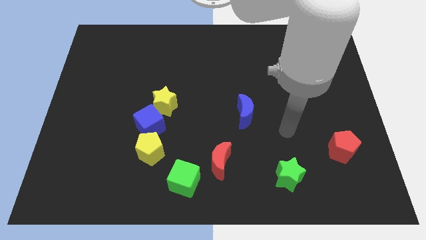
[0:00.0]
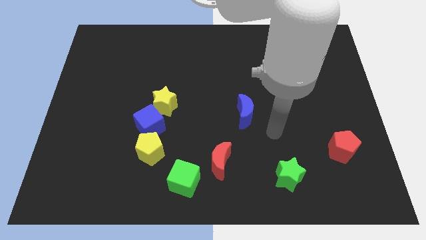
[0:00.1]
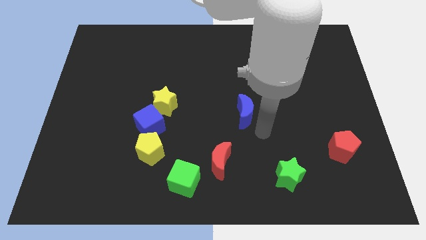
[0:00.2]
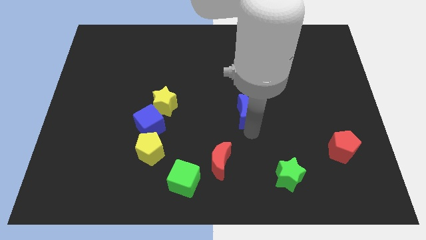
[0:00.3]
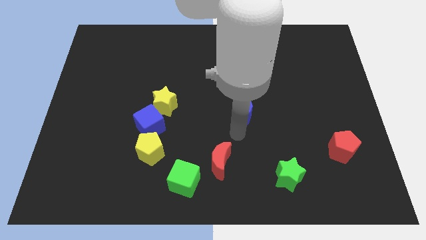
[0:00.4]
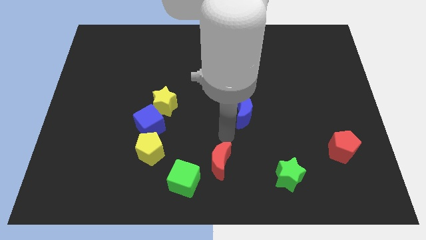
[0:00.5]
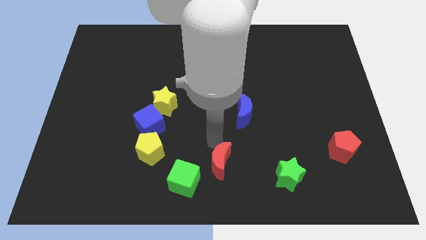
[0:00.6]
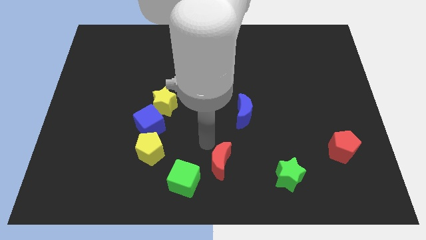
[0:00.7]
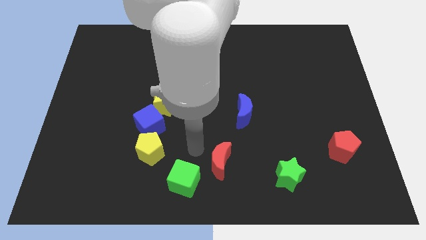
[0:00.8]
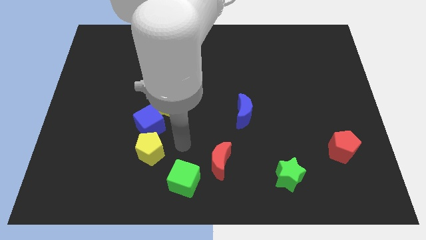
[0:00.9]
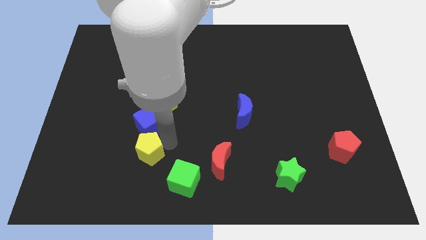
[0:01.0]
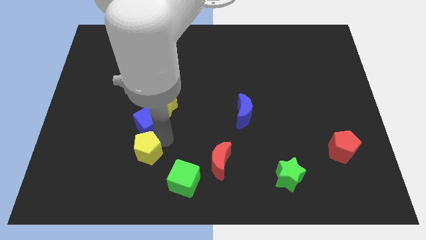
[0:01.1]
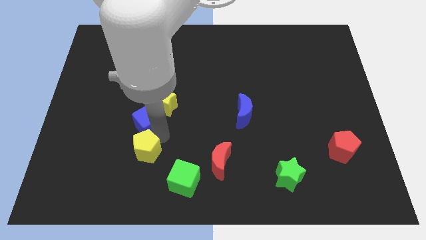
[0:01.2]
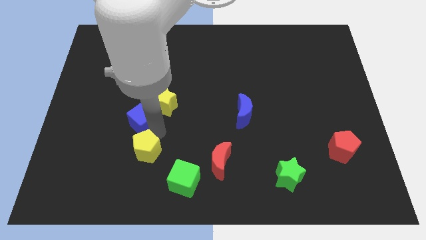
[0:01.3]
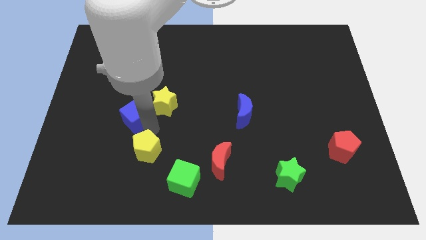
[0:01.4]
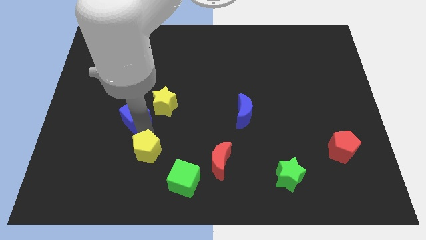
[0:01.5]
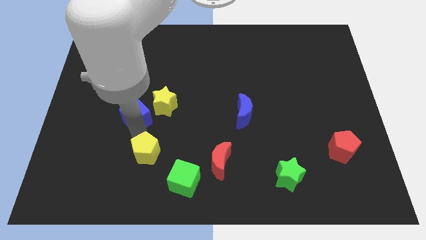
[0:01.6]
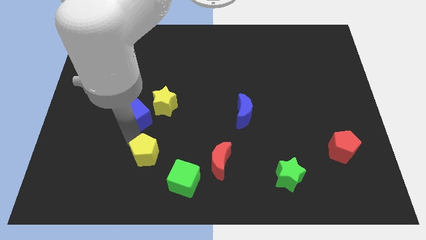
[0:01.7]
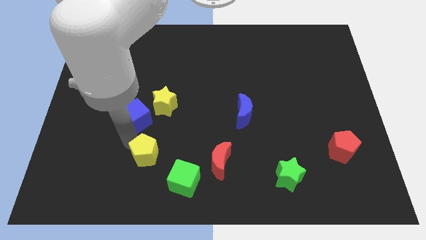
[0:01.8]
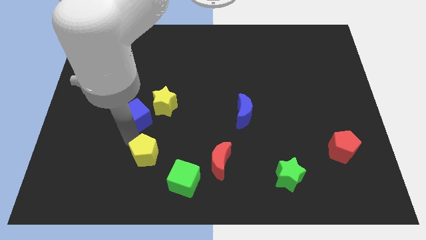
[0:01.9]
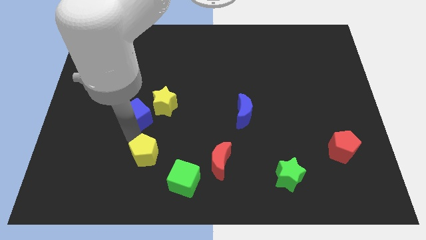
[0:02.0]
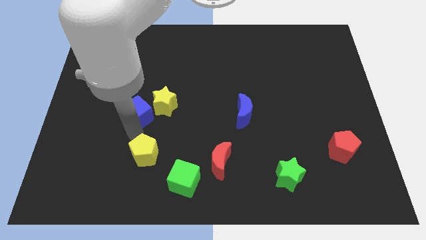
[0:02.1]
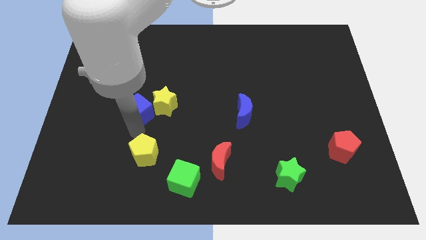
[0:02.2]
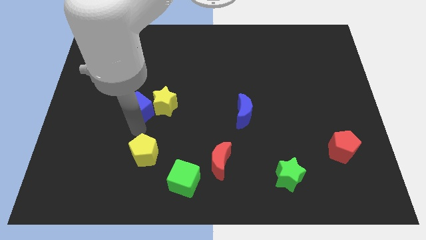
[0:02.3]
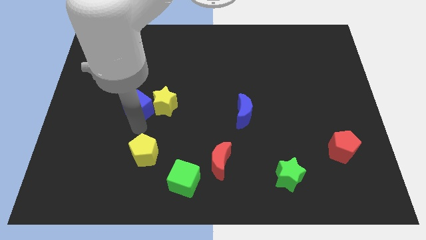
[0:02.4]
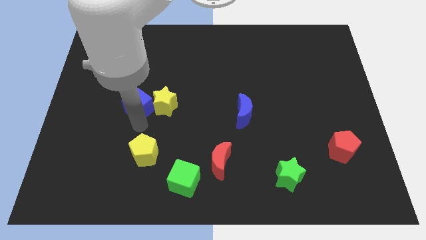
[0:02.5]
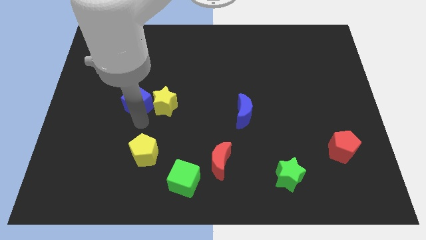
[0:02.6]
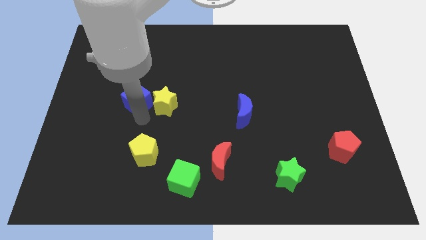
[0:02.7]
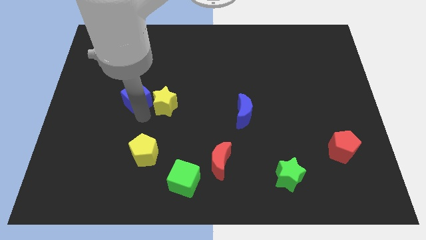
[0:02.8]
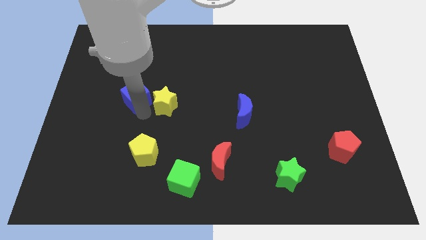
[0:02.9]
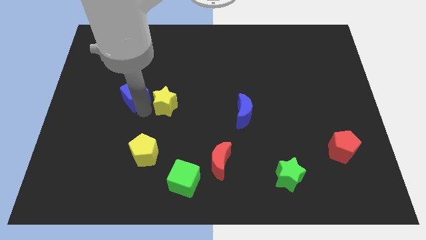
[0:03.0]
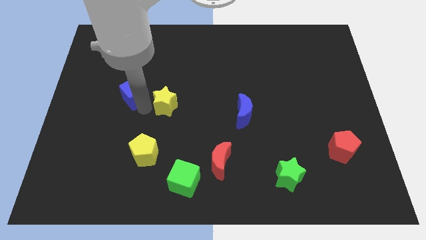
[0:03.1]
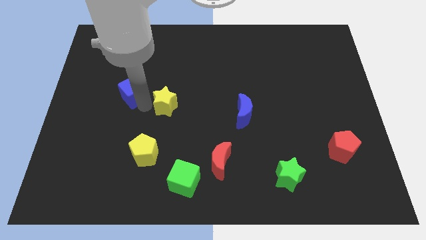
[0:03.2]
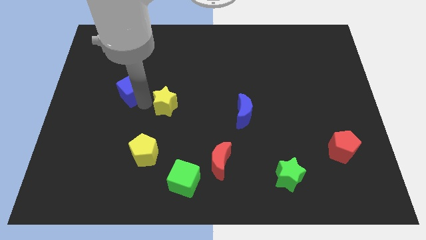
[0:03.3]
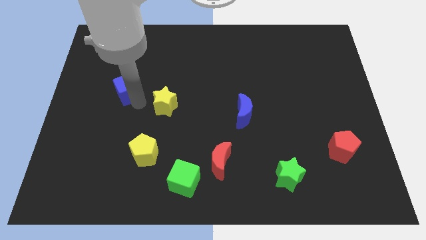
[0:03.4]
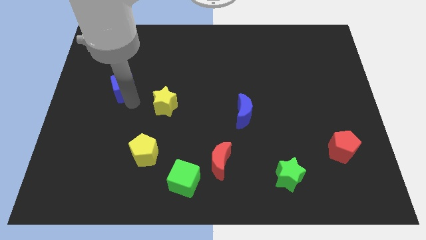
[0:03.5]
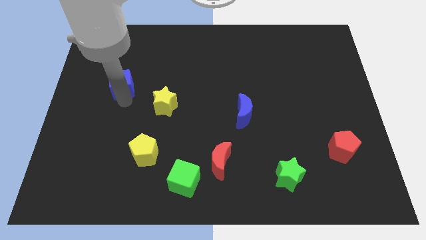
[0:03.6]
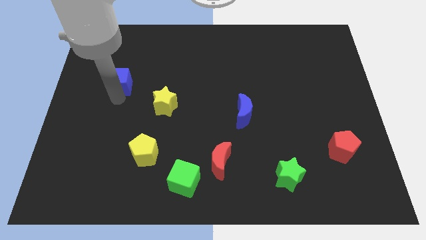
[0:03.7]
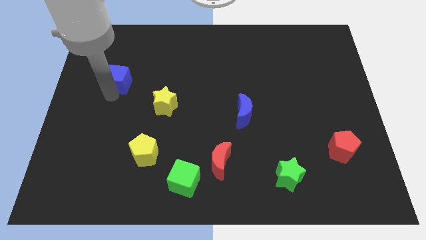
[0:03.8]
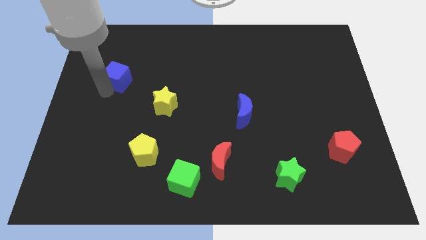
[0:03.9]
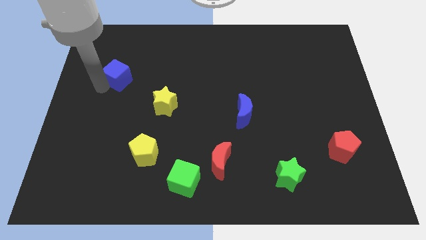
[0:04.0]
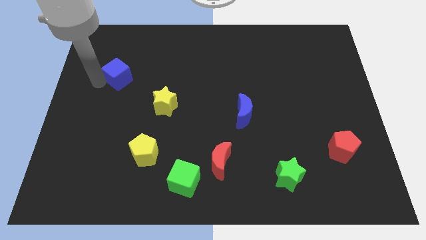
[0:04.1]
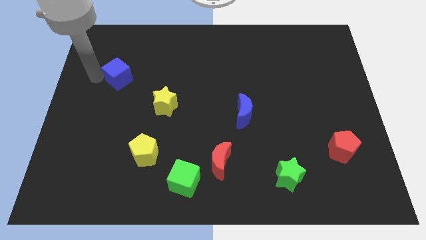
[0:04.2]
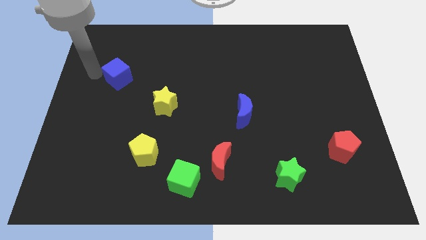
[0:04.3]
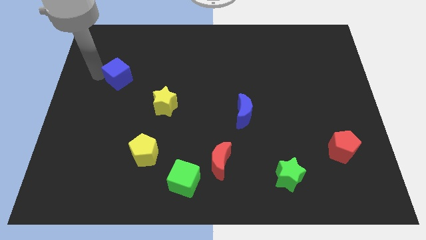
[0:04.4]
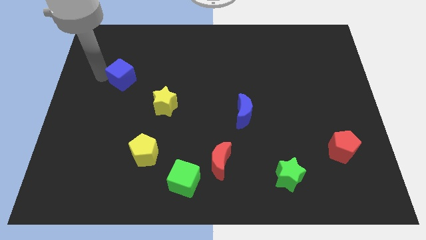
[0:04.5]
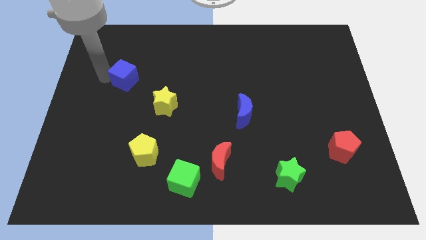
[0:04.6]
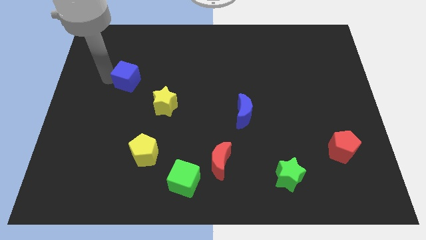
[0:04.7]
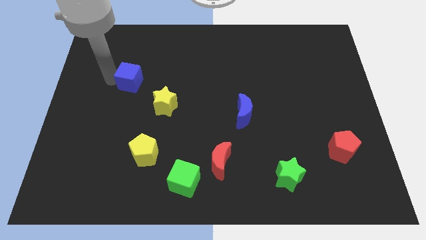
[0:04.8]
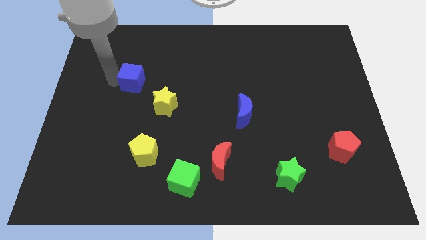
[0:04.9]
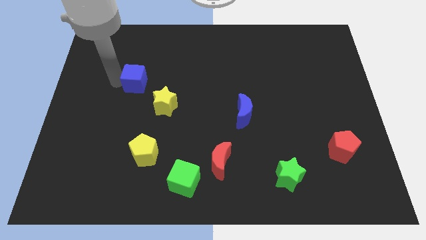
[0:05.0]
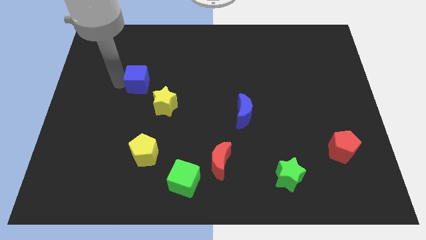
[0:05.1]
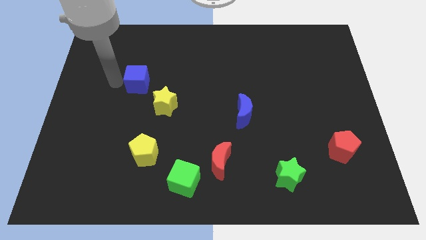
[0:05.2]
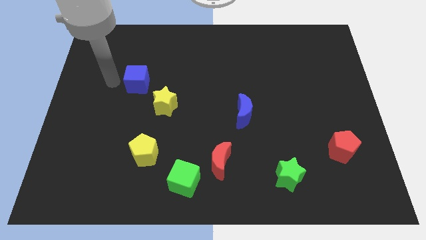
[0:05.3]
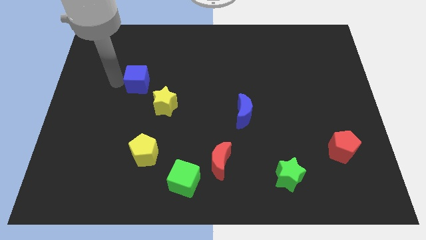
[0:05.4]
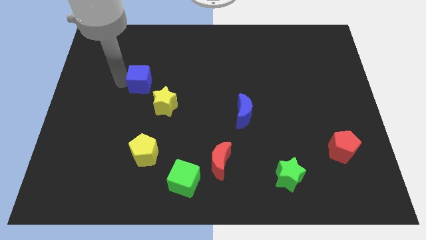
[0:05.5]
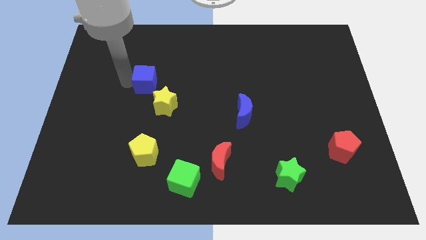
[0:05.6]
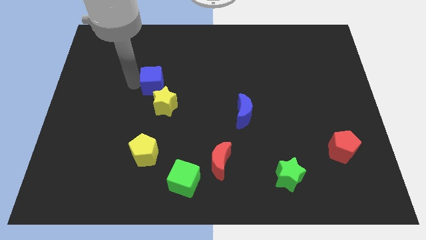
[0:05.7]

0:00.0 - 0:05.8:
slide the blue cube to the top side of the yellow star

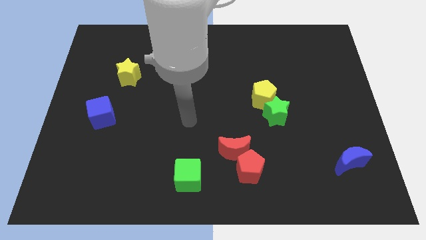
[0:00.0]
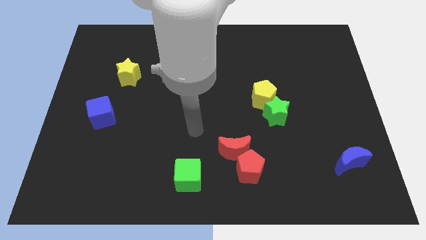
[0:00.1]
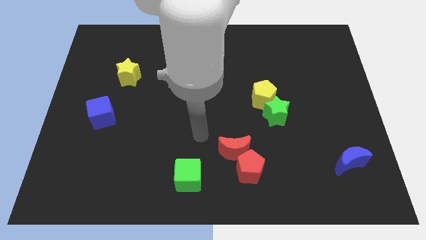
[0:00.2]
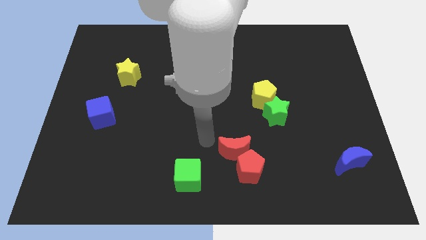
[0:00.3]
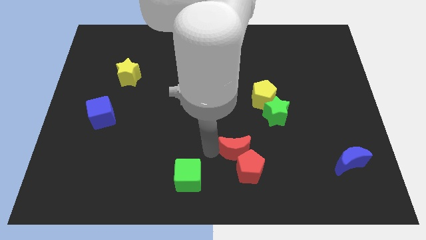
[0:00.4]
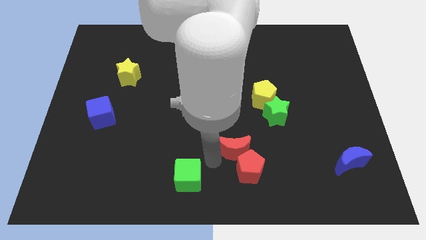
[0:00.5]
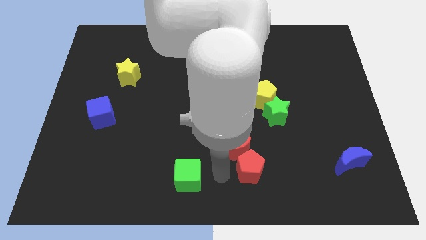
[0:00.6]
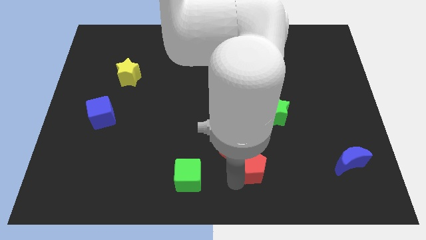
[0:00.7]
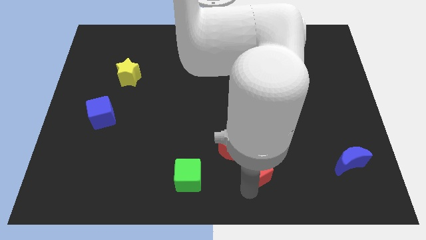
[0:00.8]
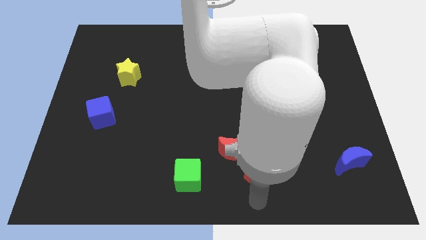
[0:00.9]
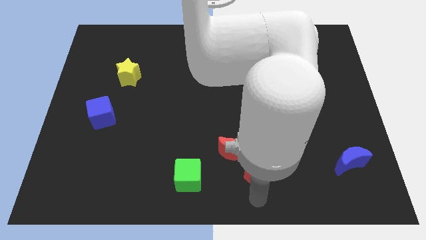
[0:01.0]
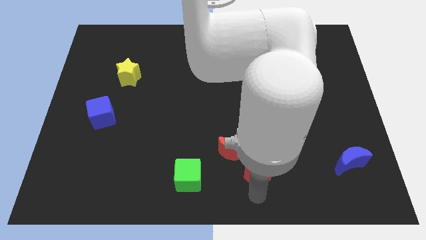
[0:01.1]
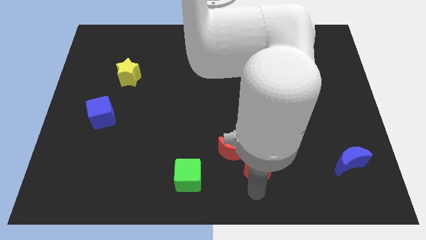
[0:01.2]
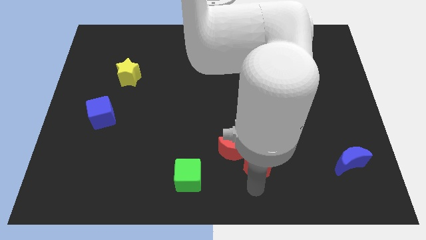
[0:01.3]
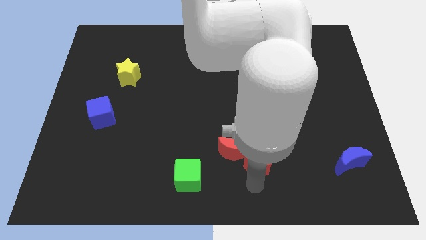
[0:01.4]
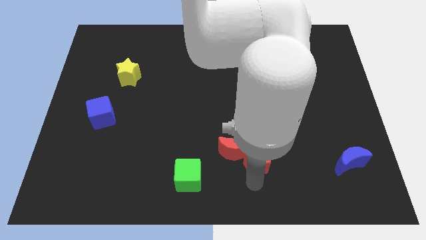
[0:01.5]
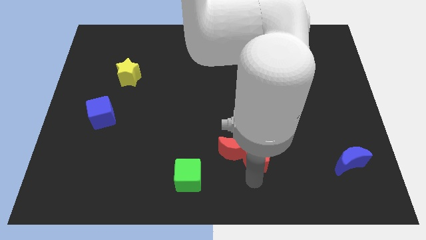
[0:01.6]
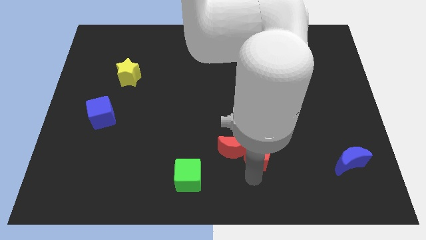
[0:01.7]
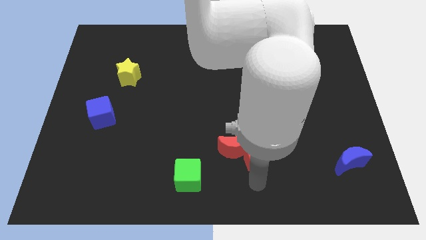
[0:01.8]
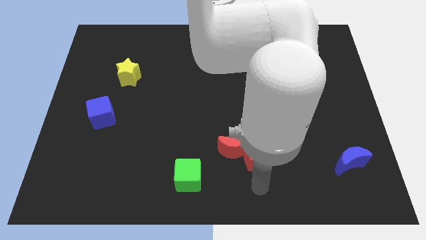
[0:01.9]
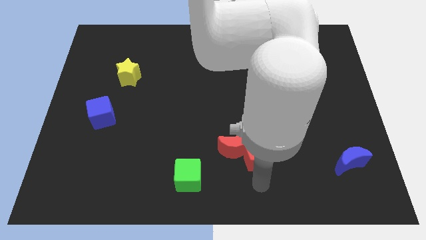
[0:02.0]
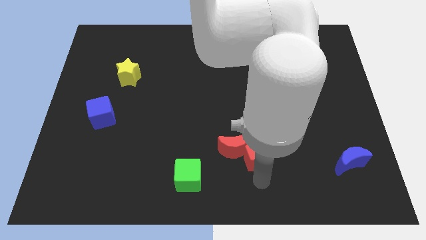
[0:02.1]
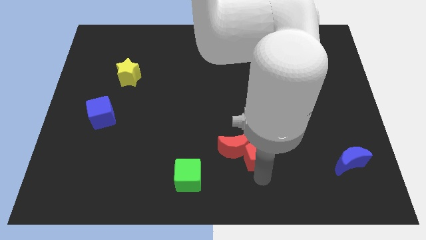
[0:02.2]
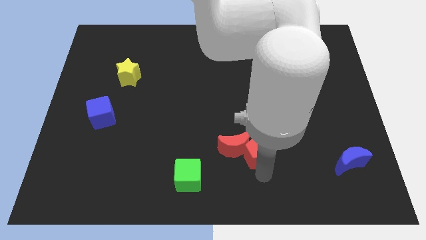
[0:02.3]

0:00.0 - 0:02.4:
slide the red pentagon to the top right side of the red moon
